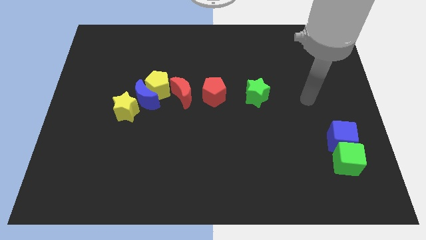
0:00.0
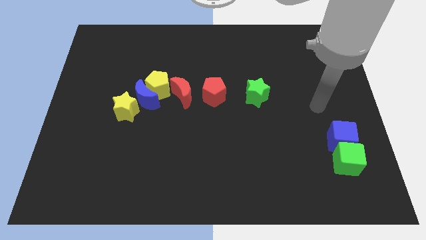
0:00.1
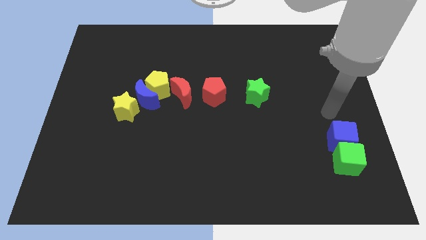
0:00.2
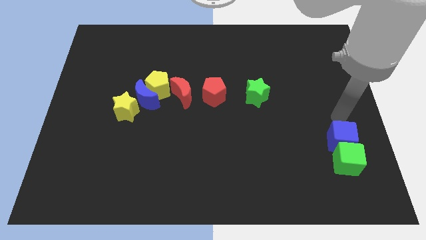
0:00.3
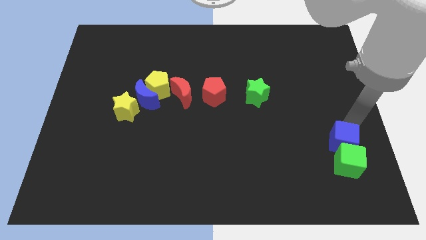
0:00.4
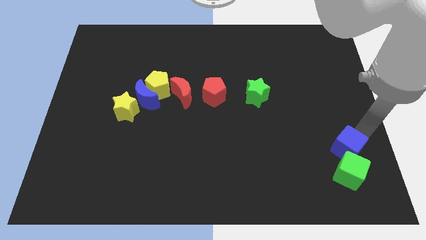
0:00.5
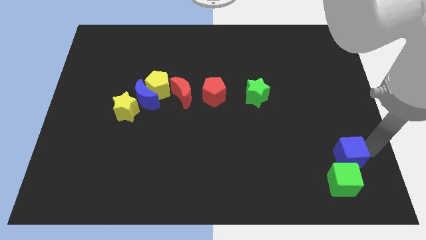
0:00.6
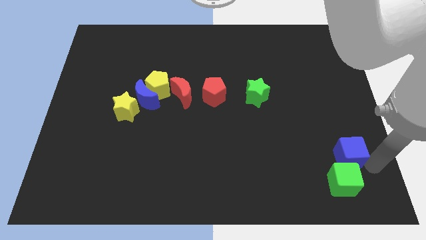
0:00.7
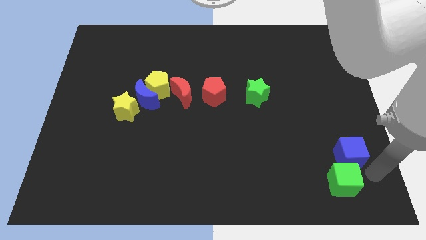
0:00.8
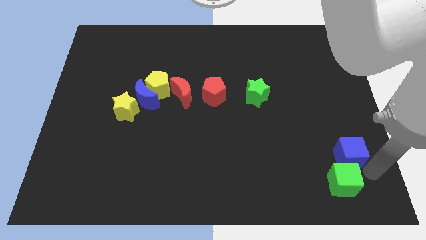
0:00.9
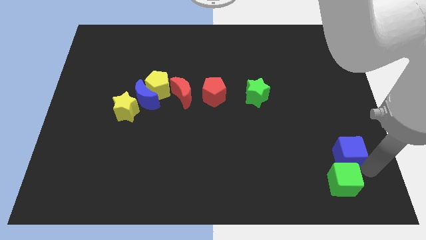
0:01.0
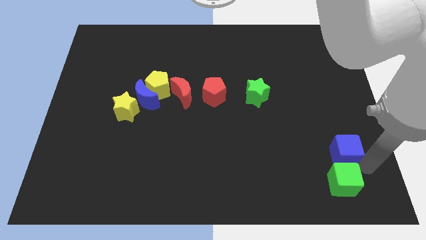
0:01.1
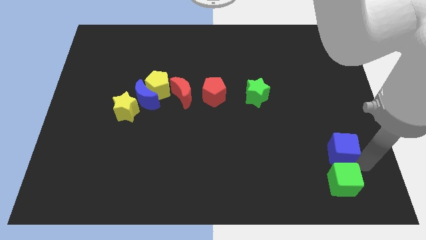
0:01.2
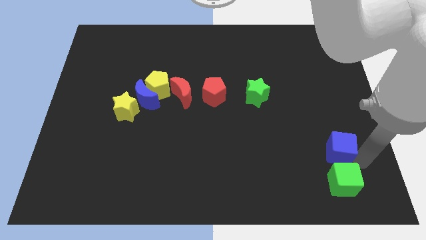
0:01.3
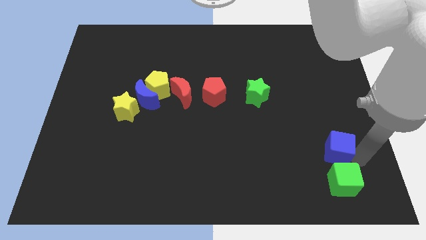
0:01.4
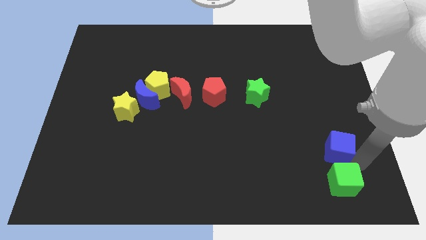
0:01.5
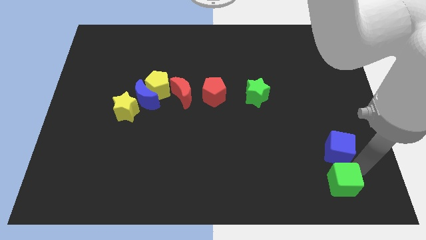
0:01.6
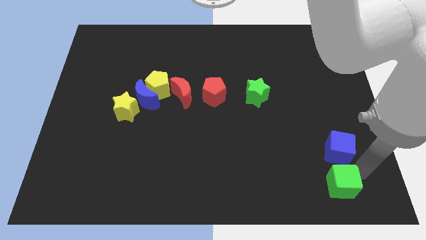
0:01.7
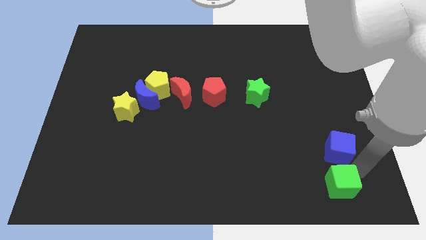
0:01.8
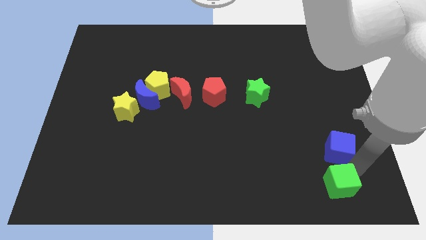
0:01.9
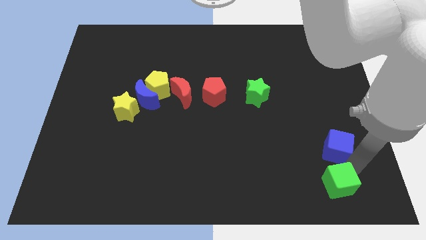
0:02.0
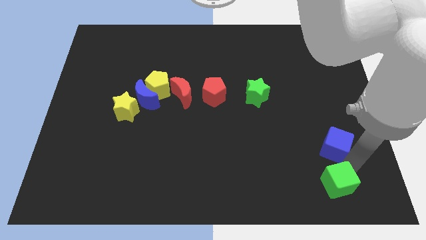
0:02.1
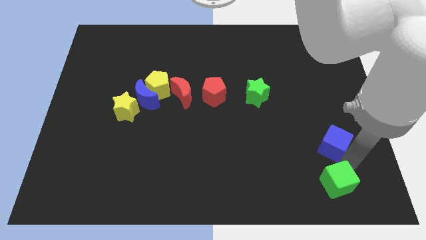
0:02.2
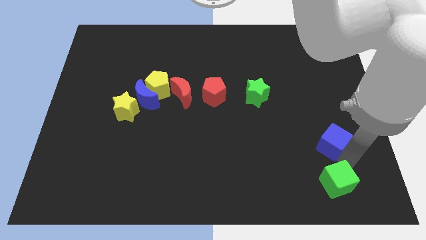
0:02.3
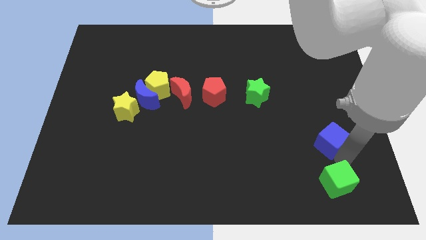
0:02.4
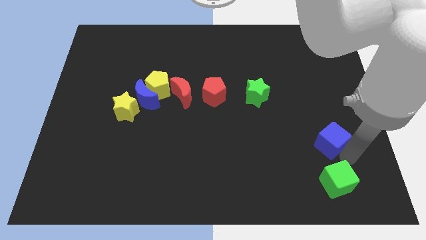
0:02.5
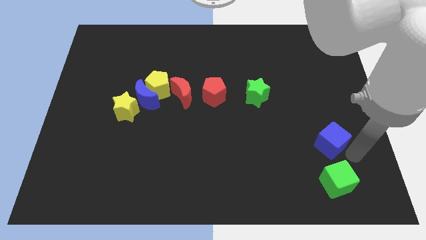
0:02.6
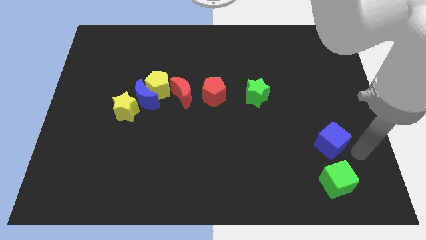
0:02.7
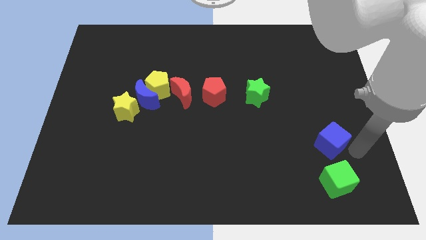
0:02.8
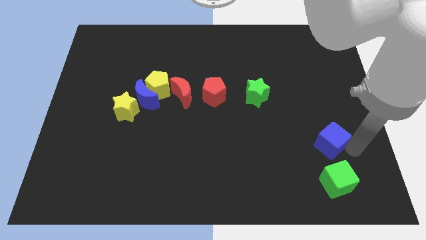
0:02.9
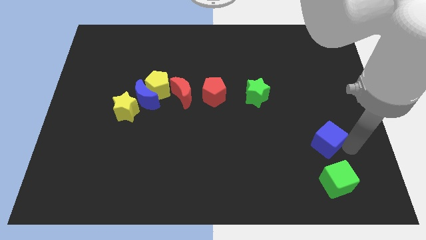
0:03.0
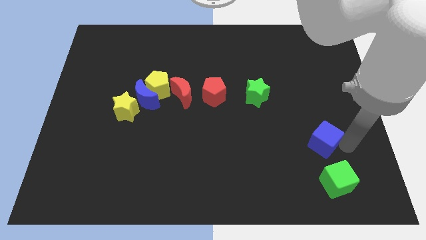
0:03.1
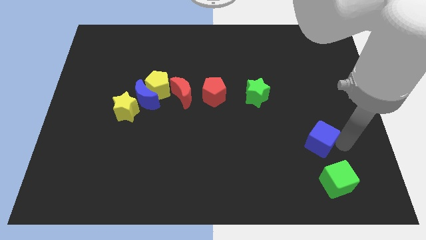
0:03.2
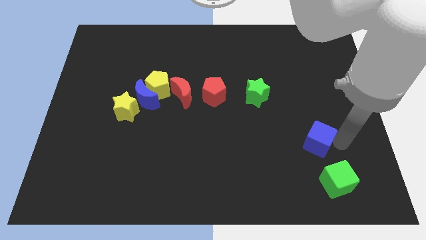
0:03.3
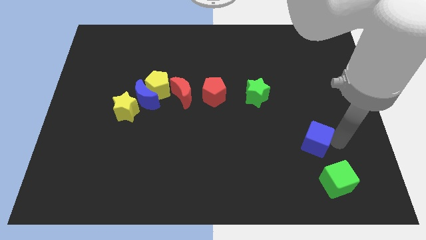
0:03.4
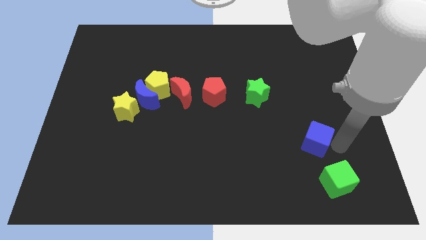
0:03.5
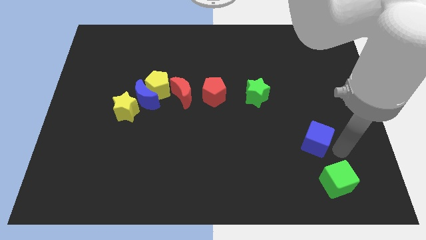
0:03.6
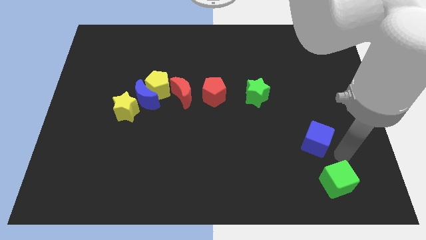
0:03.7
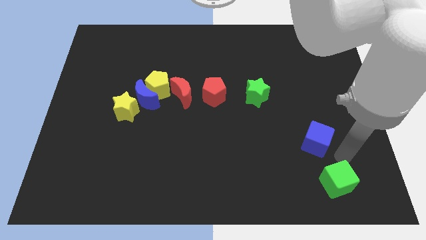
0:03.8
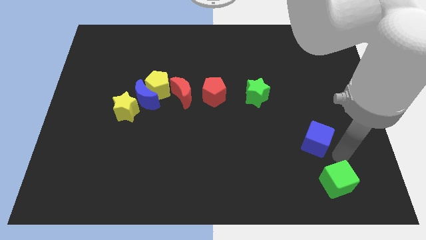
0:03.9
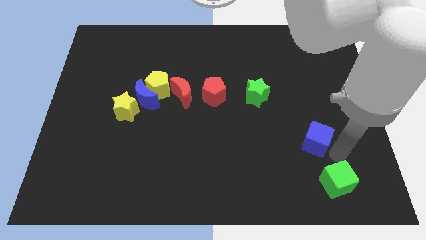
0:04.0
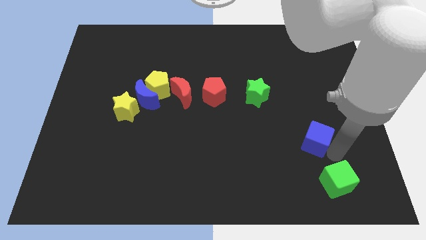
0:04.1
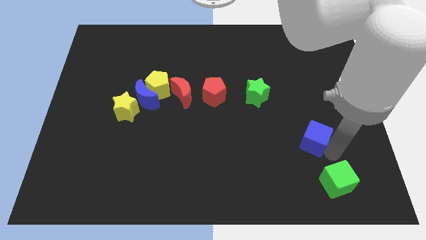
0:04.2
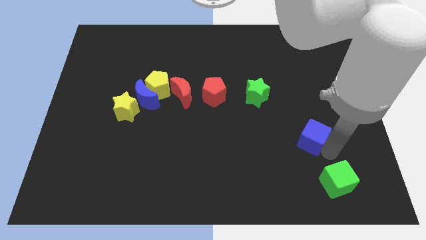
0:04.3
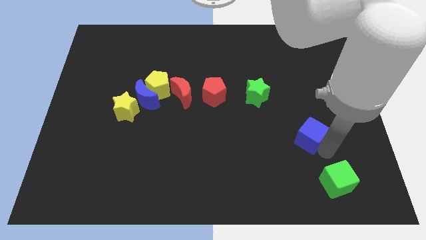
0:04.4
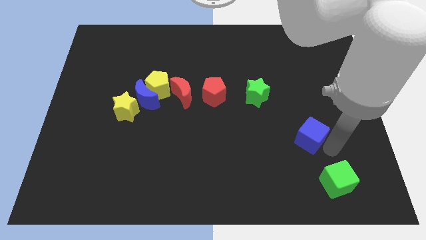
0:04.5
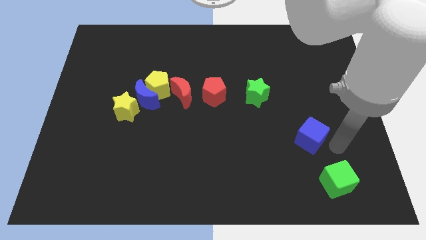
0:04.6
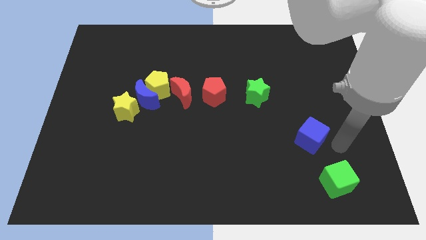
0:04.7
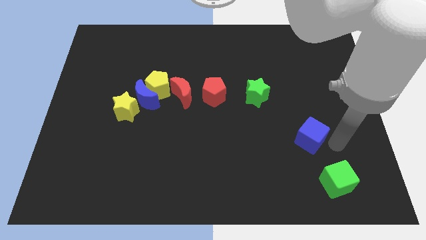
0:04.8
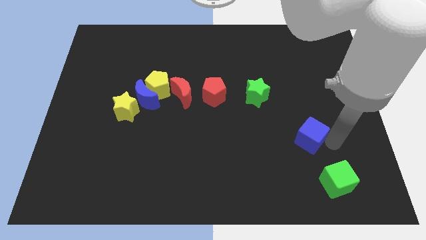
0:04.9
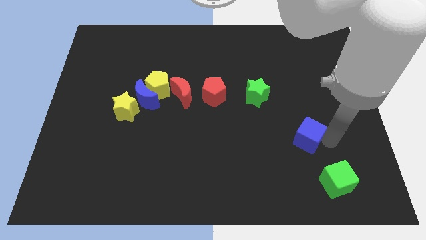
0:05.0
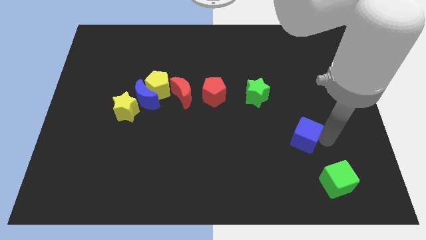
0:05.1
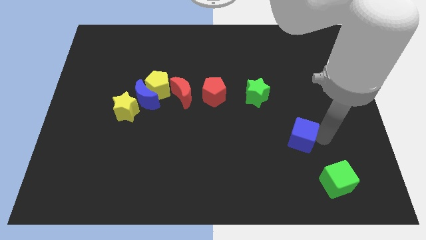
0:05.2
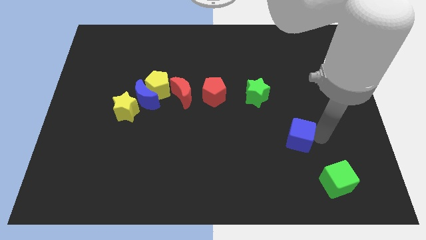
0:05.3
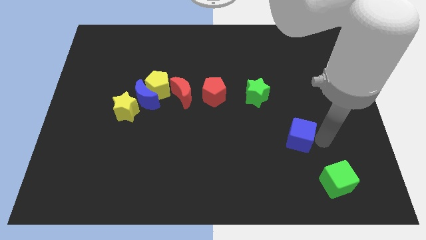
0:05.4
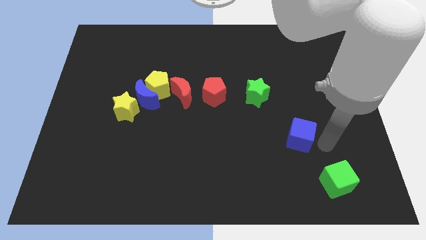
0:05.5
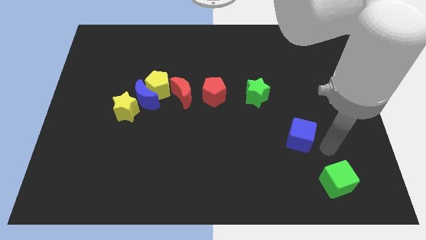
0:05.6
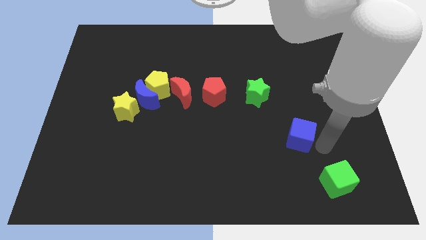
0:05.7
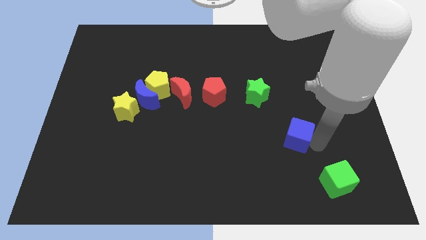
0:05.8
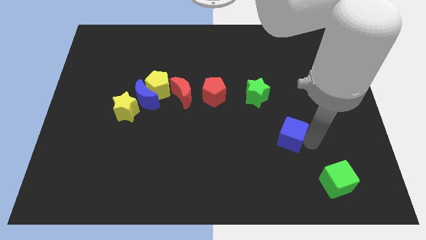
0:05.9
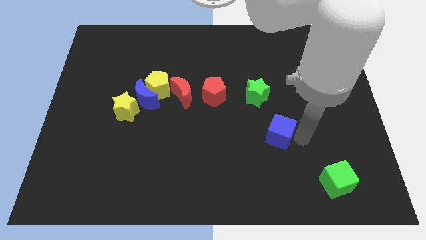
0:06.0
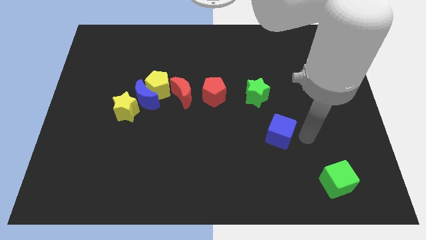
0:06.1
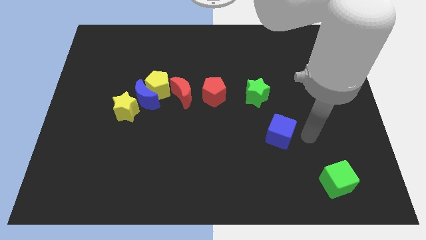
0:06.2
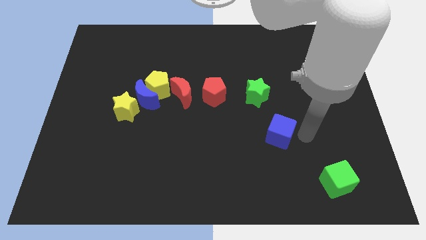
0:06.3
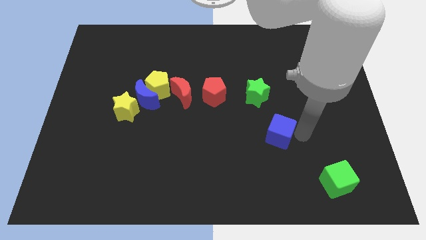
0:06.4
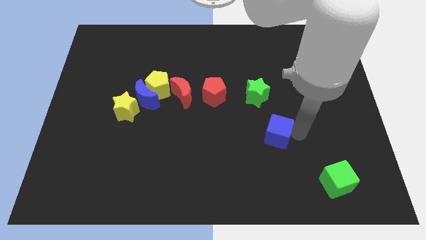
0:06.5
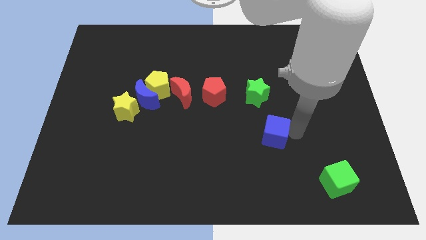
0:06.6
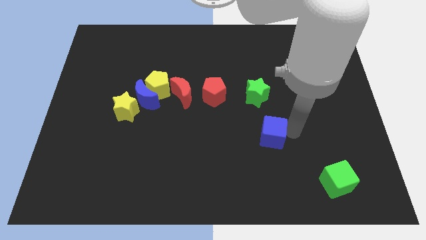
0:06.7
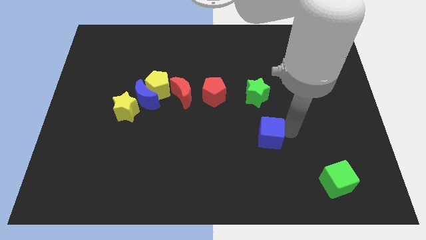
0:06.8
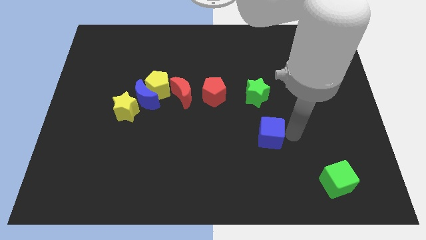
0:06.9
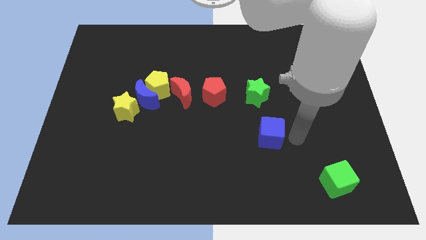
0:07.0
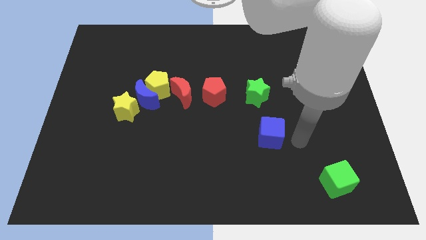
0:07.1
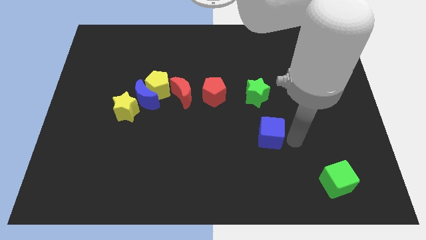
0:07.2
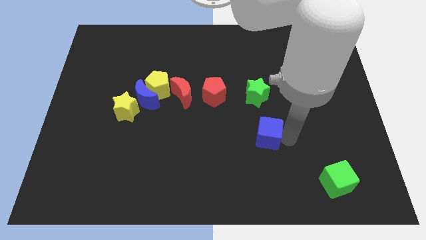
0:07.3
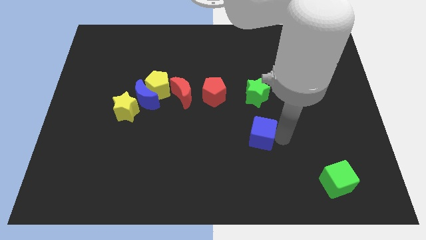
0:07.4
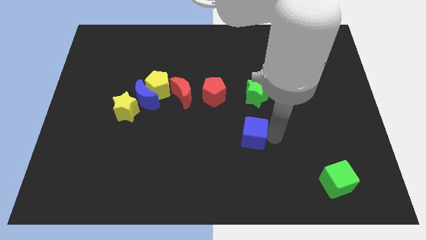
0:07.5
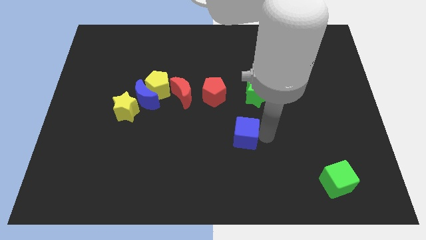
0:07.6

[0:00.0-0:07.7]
slide the blue cube to the left

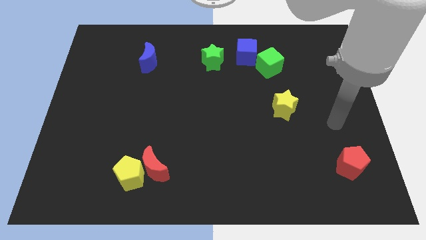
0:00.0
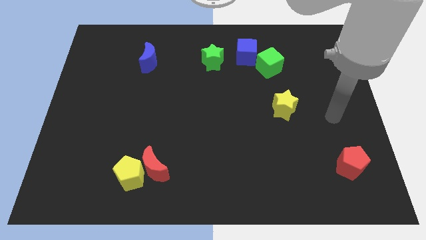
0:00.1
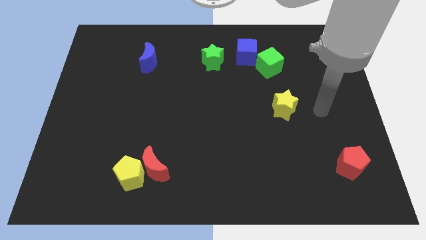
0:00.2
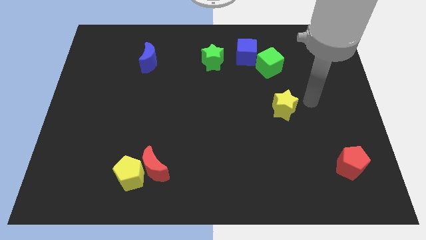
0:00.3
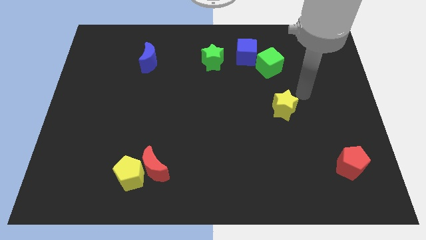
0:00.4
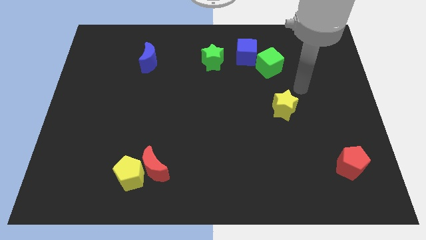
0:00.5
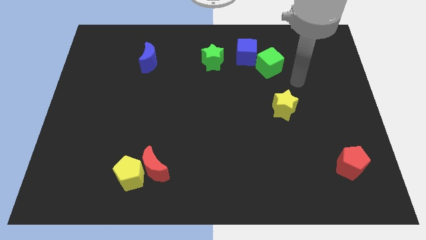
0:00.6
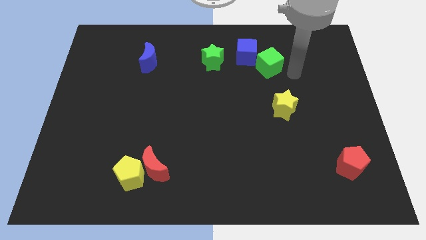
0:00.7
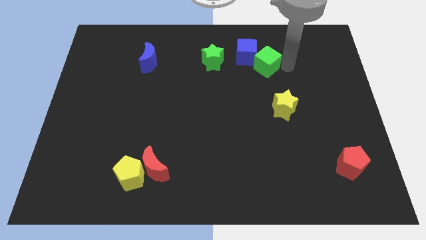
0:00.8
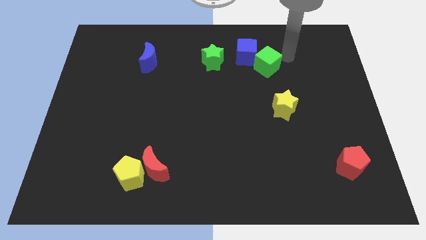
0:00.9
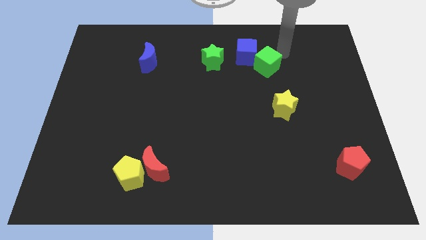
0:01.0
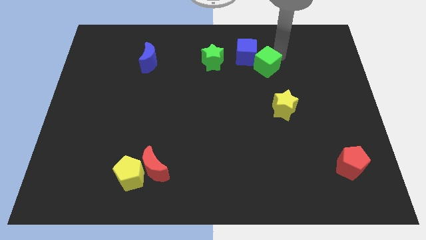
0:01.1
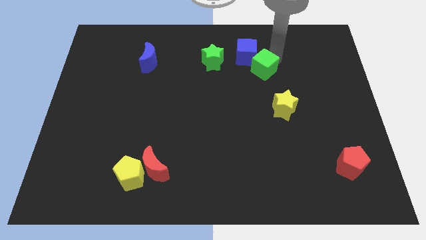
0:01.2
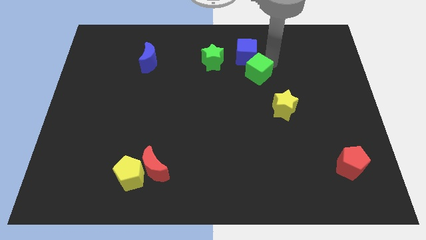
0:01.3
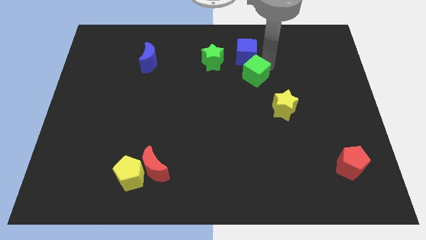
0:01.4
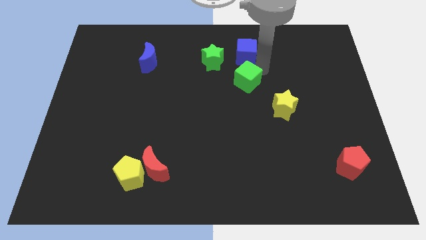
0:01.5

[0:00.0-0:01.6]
slide the green cube downwards and then to the left a little
